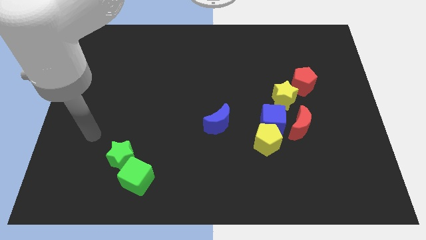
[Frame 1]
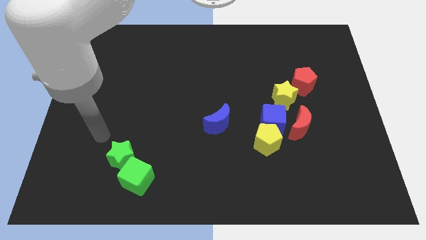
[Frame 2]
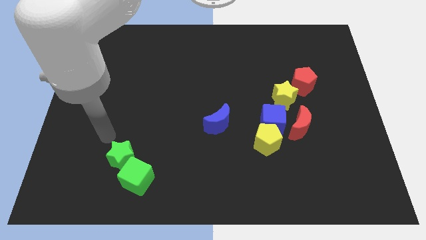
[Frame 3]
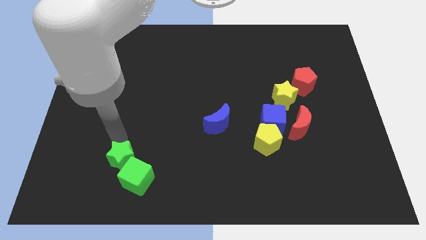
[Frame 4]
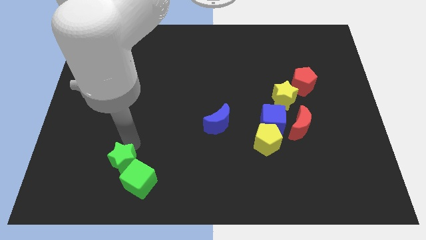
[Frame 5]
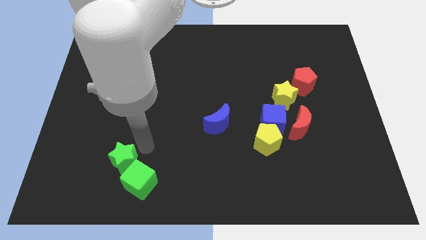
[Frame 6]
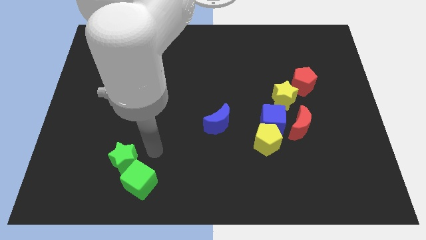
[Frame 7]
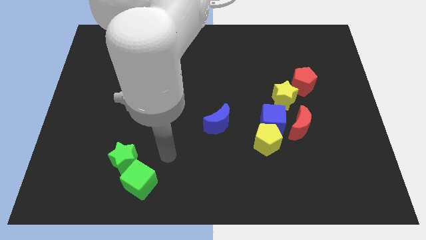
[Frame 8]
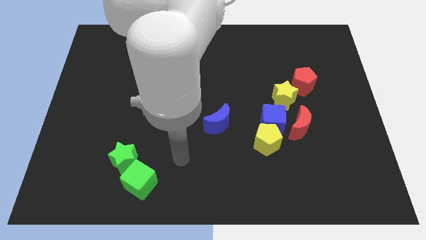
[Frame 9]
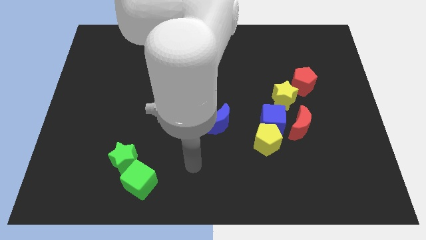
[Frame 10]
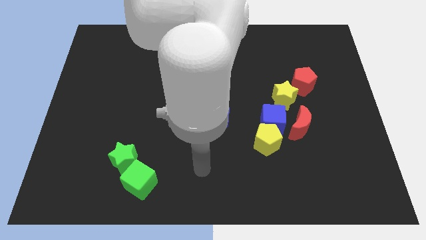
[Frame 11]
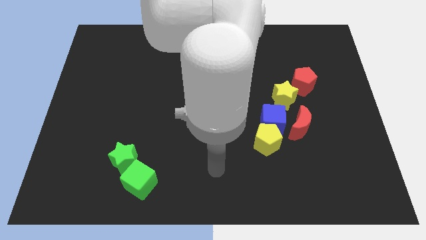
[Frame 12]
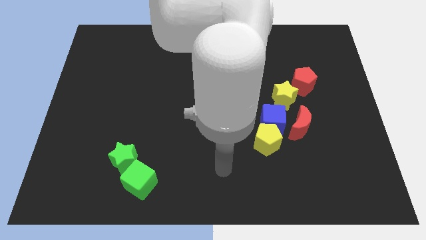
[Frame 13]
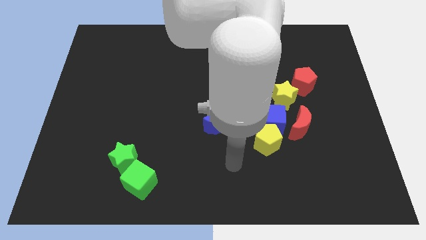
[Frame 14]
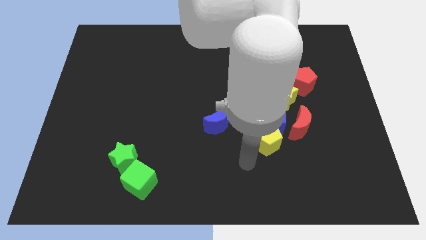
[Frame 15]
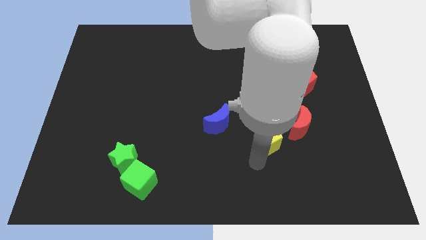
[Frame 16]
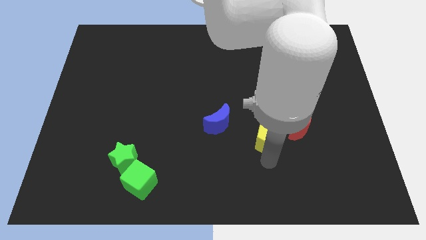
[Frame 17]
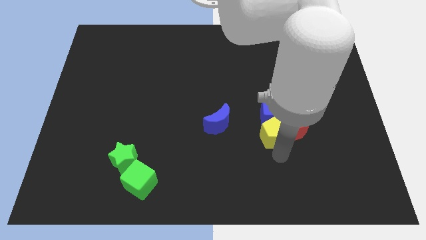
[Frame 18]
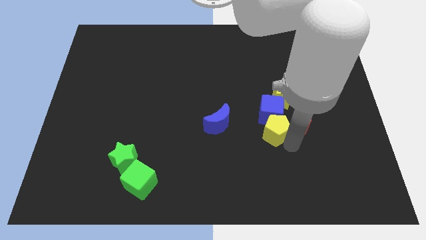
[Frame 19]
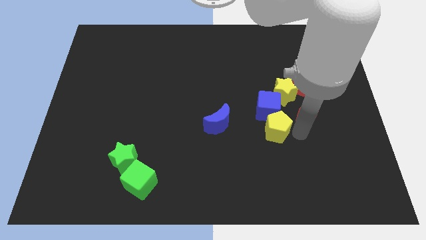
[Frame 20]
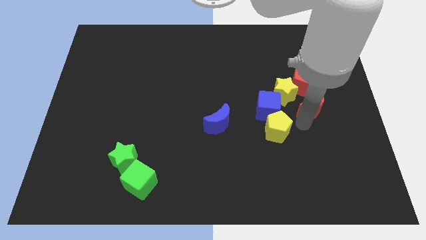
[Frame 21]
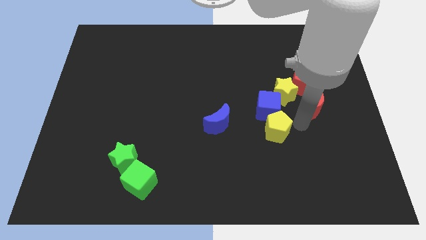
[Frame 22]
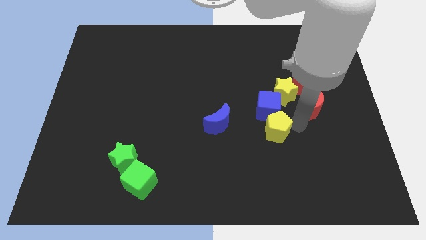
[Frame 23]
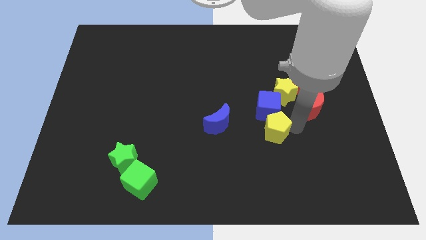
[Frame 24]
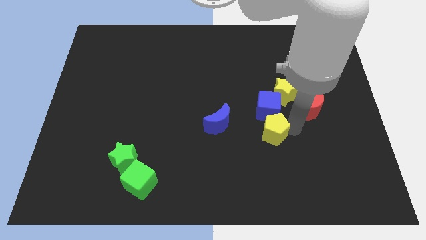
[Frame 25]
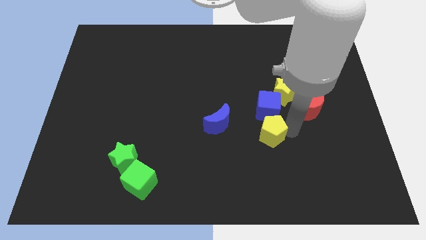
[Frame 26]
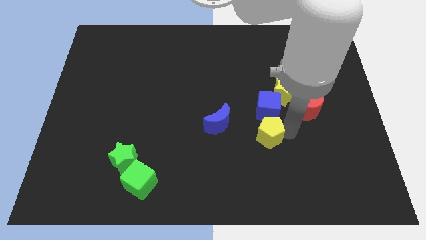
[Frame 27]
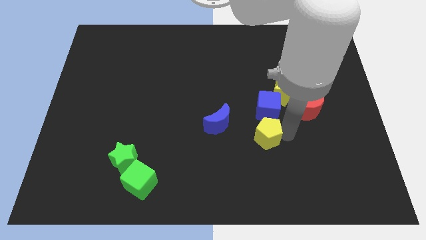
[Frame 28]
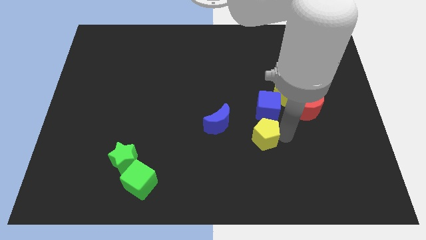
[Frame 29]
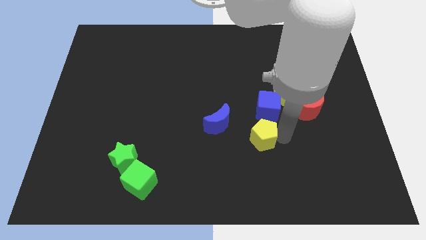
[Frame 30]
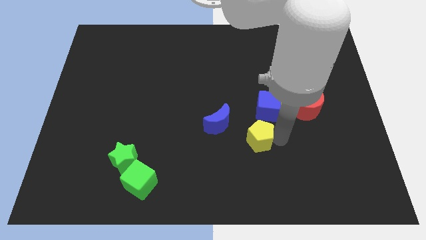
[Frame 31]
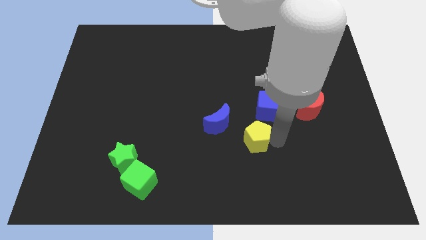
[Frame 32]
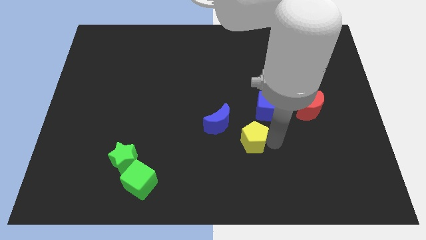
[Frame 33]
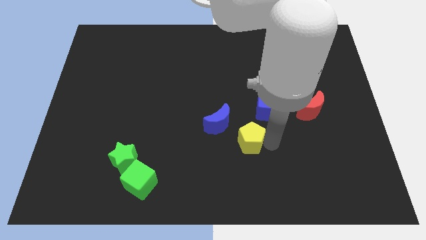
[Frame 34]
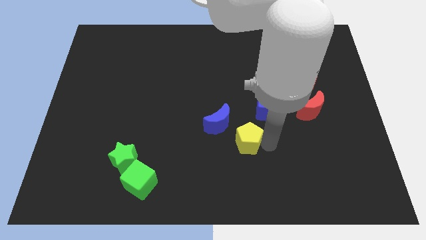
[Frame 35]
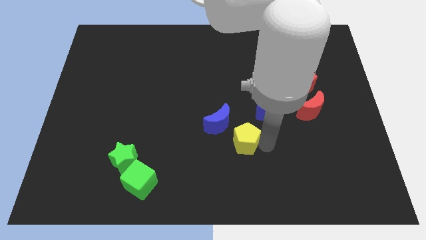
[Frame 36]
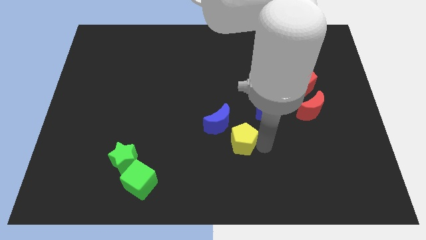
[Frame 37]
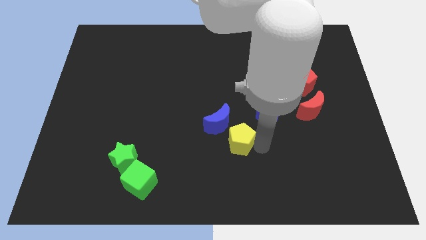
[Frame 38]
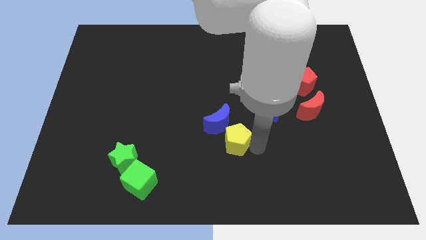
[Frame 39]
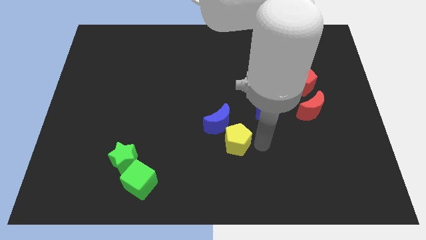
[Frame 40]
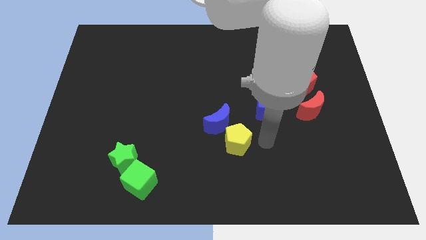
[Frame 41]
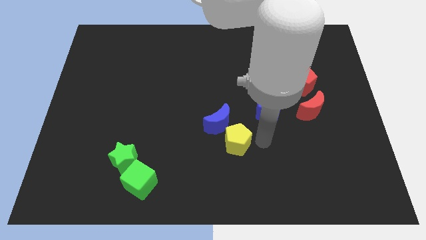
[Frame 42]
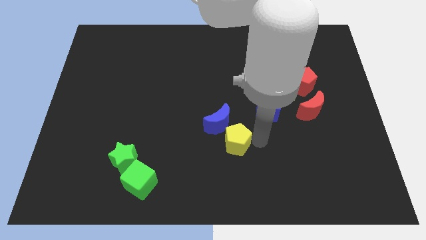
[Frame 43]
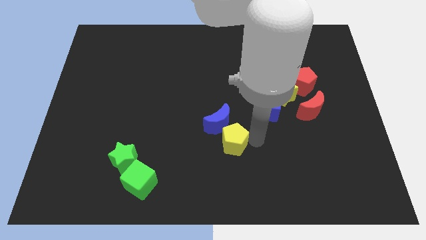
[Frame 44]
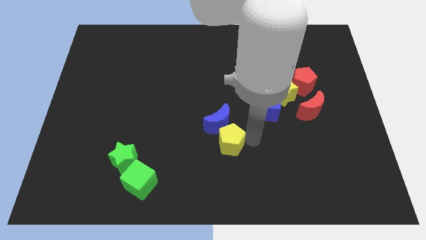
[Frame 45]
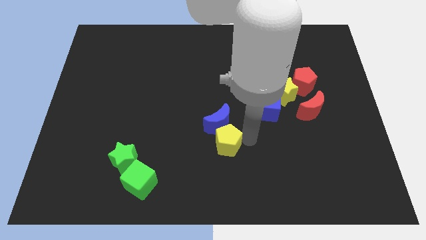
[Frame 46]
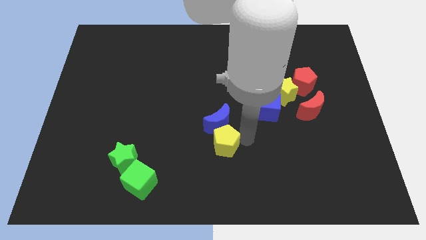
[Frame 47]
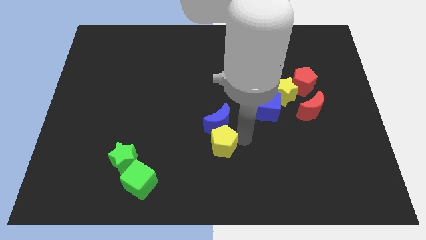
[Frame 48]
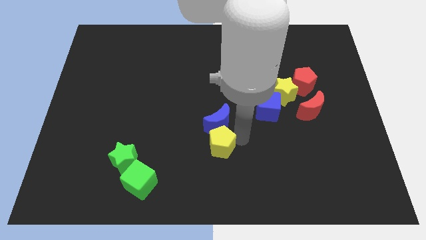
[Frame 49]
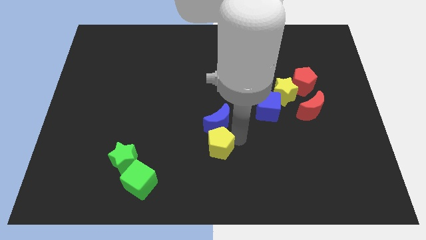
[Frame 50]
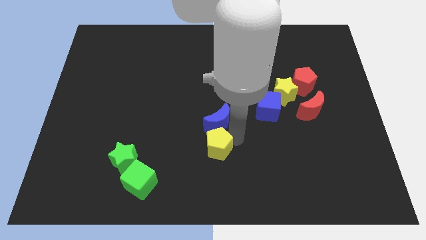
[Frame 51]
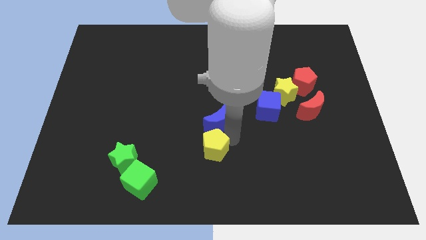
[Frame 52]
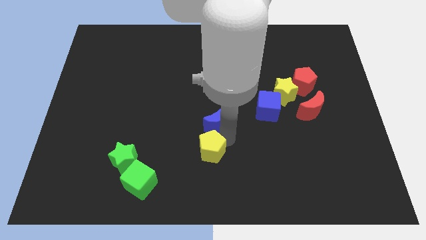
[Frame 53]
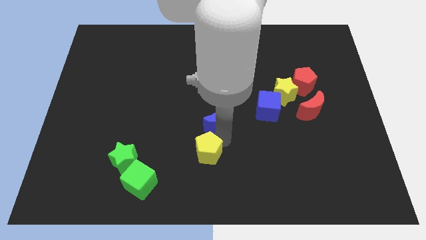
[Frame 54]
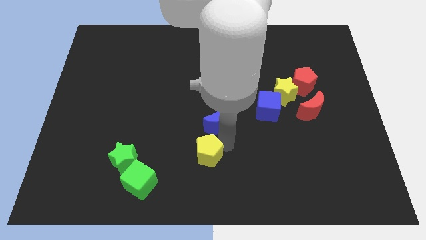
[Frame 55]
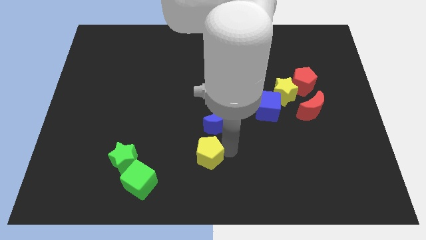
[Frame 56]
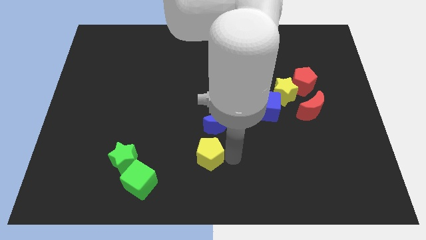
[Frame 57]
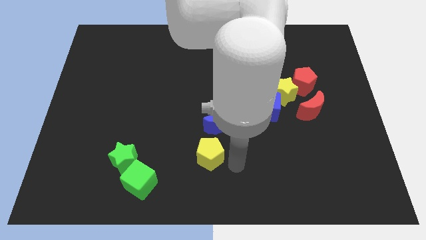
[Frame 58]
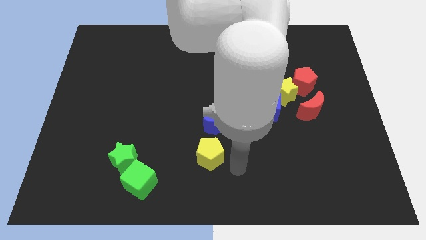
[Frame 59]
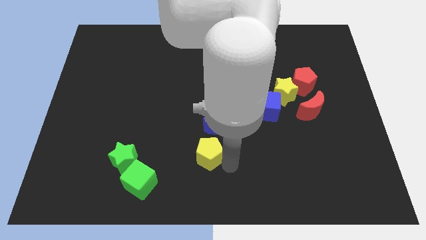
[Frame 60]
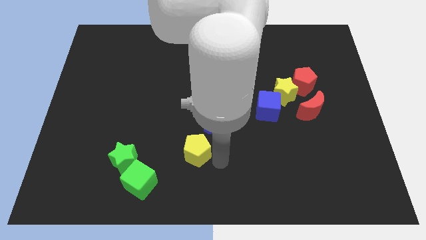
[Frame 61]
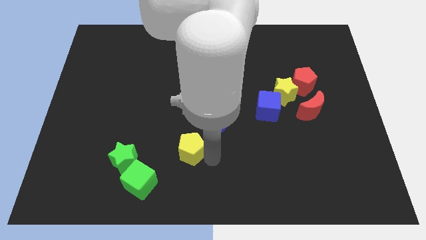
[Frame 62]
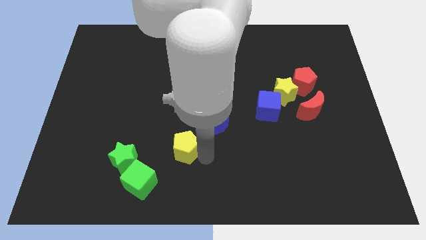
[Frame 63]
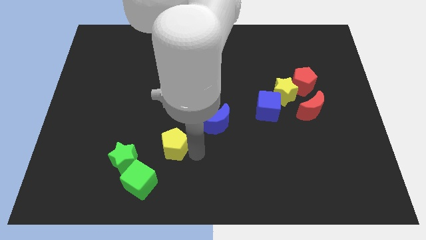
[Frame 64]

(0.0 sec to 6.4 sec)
push the yellow pentagon to the left

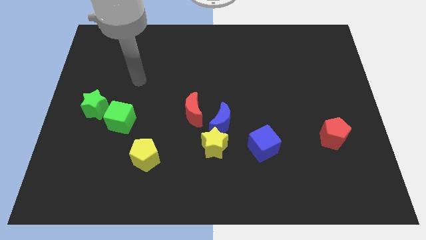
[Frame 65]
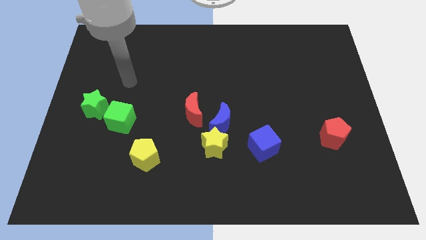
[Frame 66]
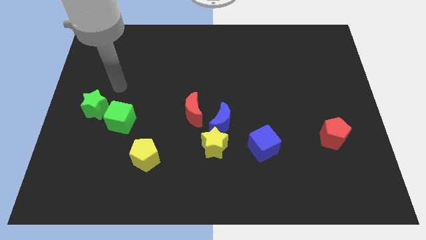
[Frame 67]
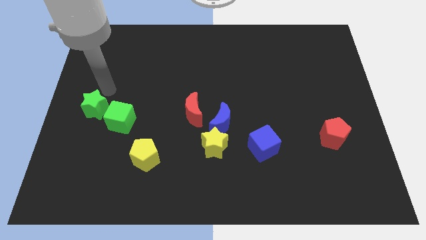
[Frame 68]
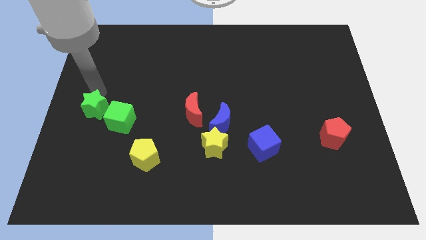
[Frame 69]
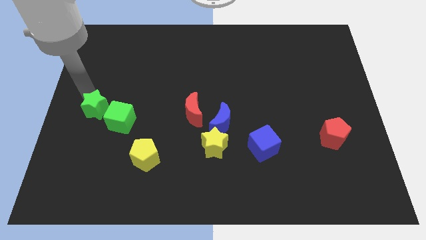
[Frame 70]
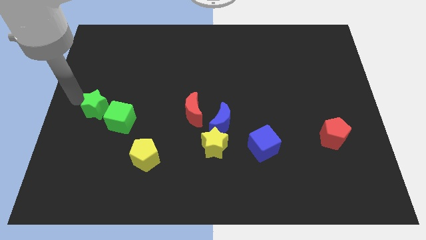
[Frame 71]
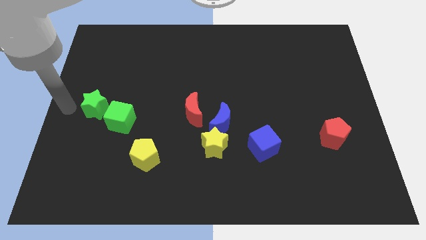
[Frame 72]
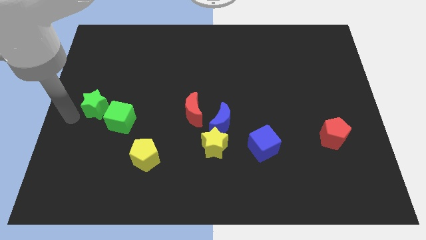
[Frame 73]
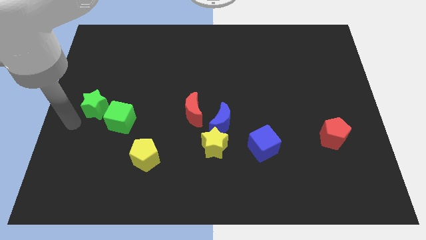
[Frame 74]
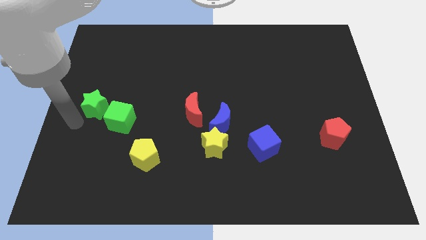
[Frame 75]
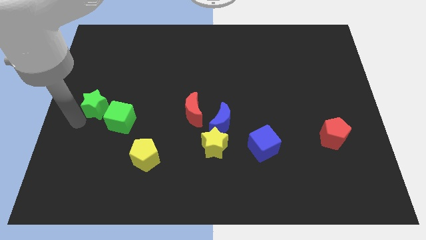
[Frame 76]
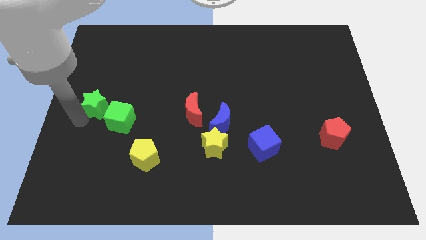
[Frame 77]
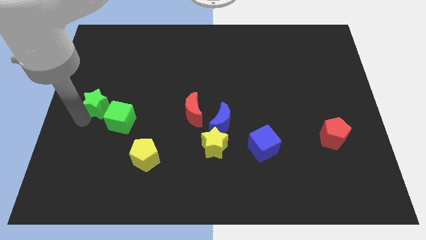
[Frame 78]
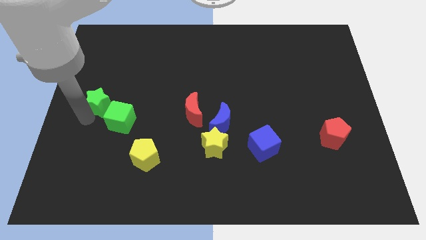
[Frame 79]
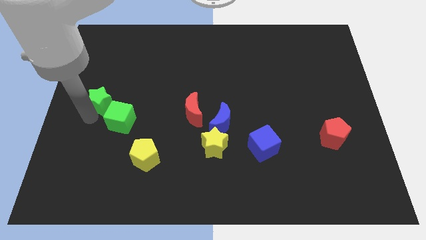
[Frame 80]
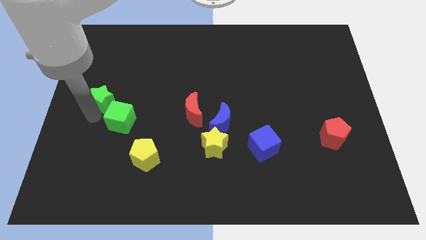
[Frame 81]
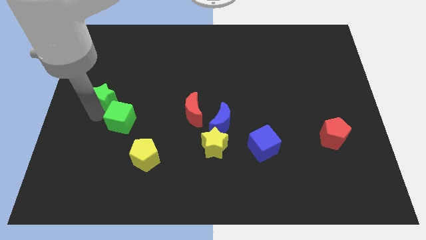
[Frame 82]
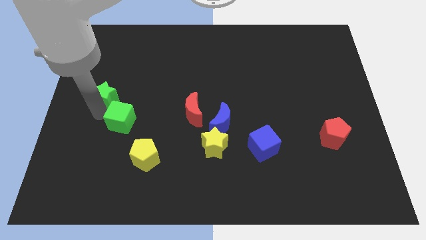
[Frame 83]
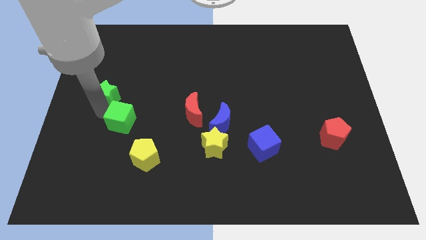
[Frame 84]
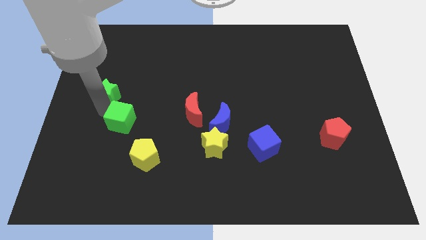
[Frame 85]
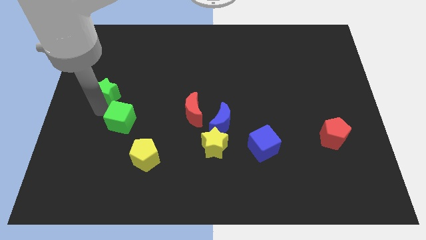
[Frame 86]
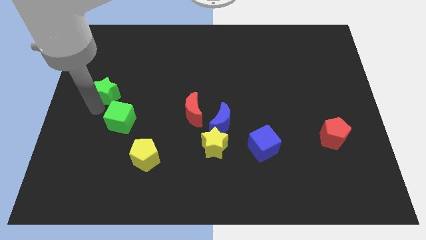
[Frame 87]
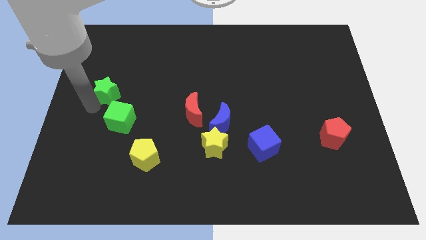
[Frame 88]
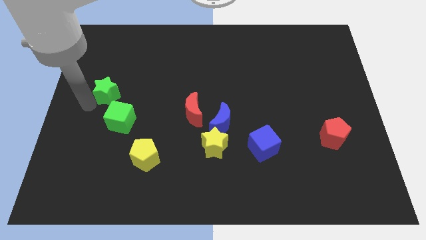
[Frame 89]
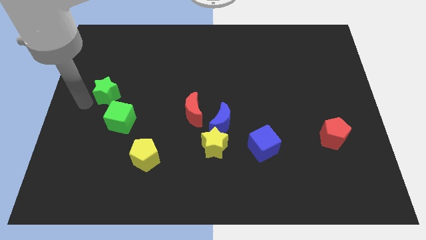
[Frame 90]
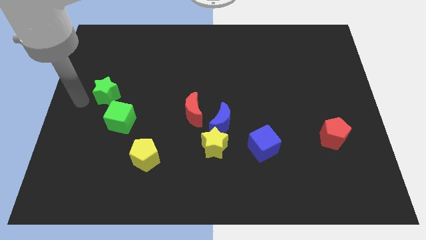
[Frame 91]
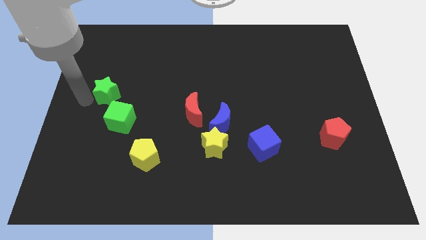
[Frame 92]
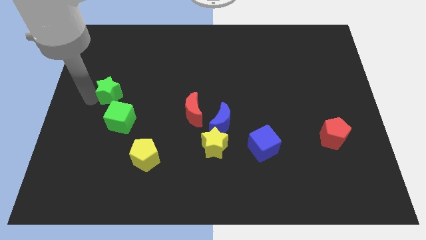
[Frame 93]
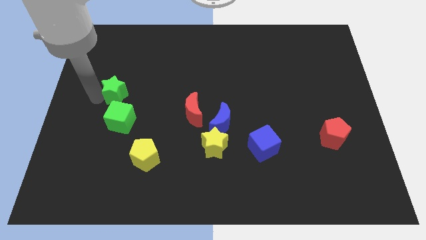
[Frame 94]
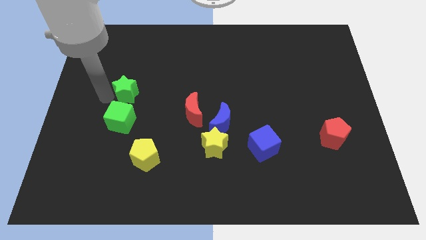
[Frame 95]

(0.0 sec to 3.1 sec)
slightly slide the green star upwards and to the right diagonally
